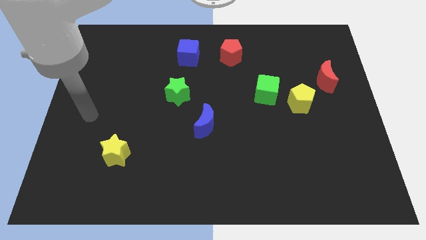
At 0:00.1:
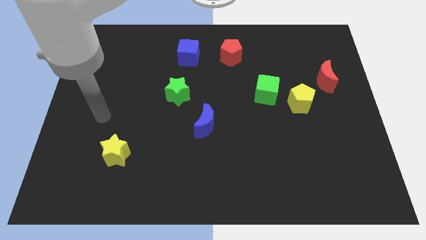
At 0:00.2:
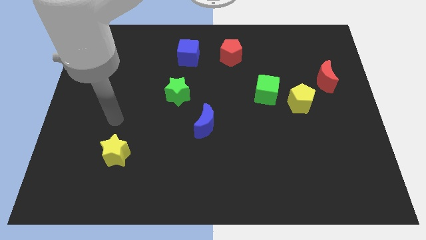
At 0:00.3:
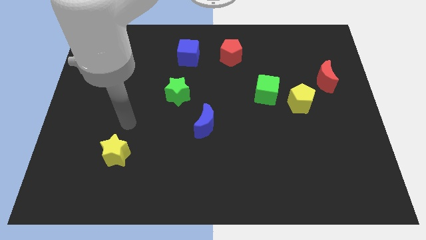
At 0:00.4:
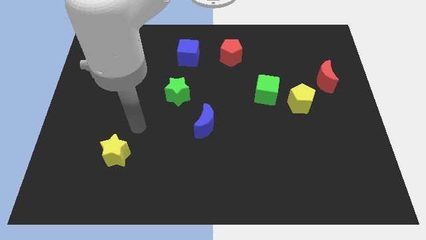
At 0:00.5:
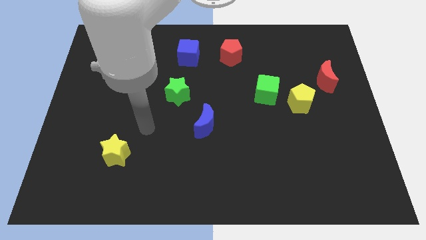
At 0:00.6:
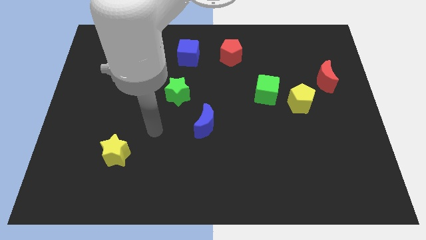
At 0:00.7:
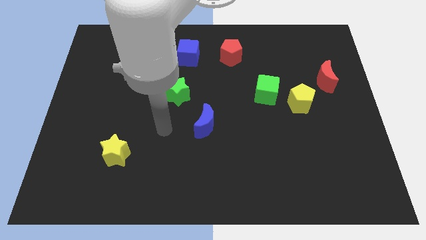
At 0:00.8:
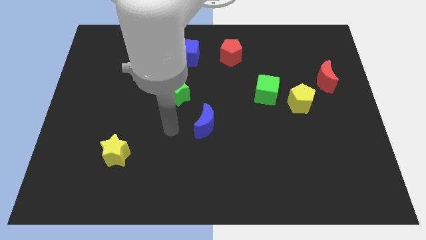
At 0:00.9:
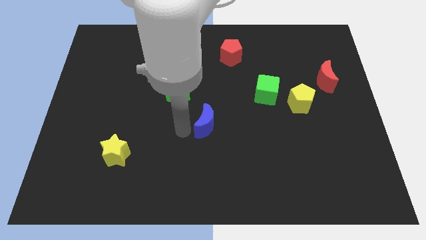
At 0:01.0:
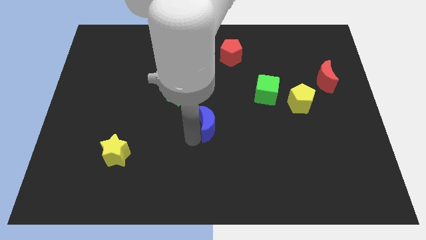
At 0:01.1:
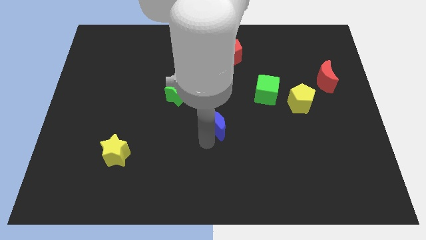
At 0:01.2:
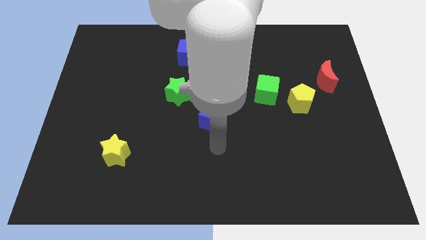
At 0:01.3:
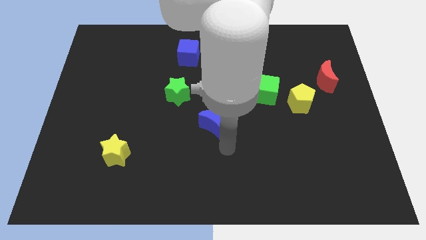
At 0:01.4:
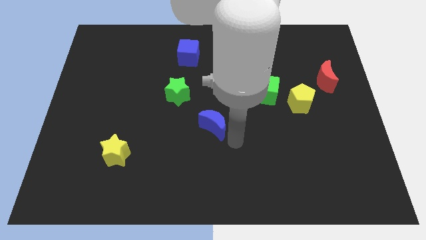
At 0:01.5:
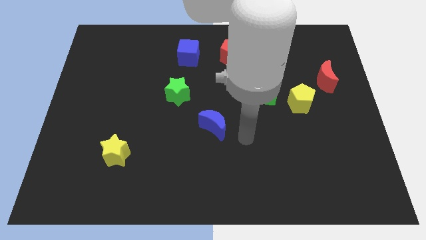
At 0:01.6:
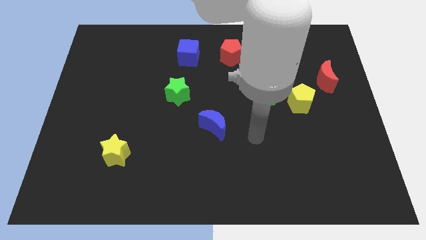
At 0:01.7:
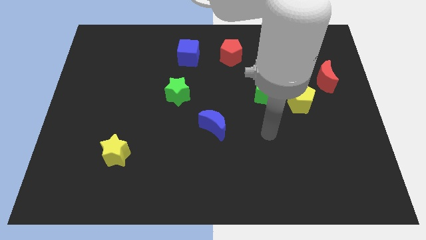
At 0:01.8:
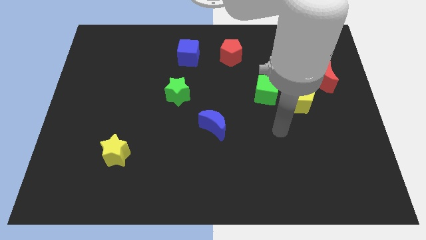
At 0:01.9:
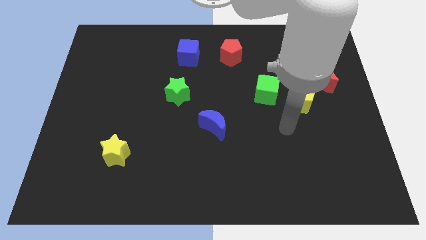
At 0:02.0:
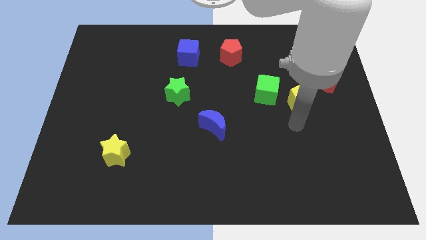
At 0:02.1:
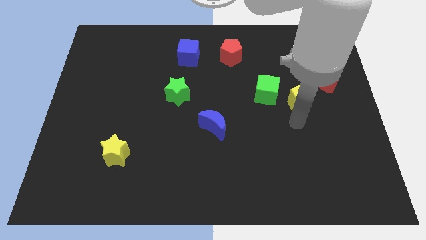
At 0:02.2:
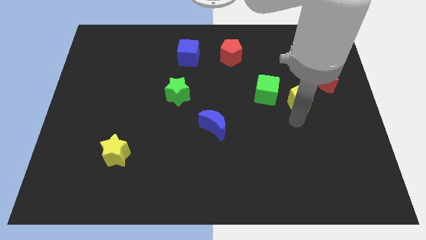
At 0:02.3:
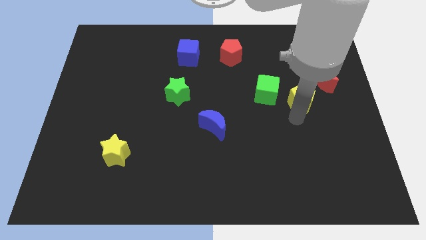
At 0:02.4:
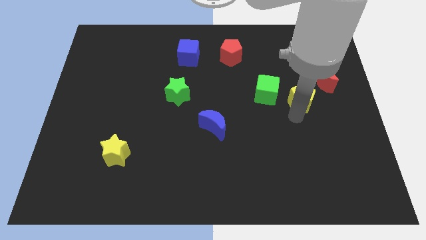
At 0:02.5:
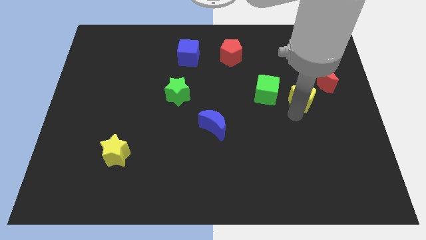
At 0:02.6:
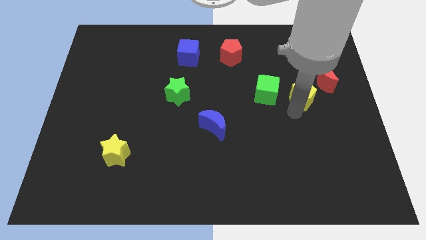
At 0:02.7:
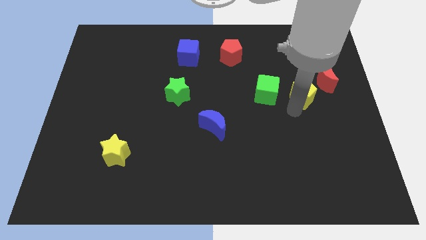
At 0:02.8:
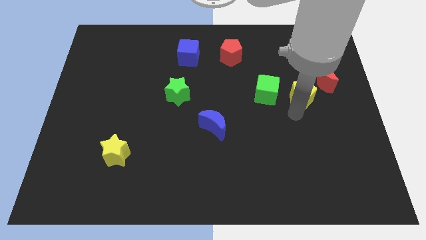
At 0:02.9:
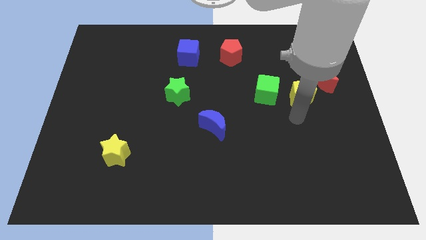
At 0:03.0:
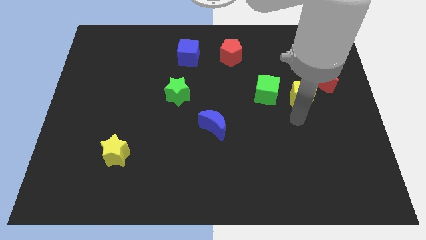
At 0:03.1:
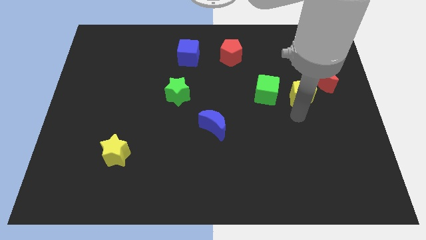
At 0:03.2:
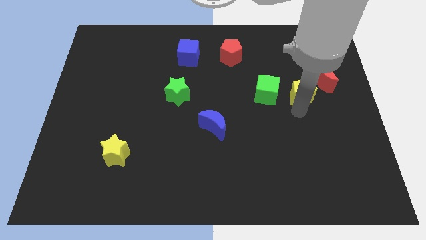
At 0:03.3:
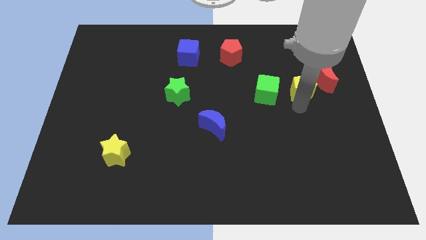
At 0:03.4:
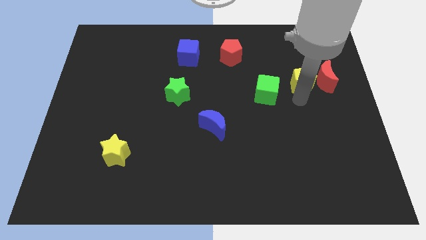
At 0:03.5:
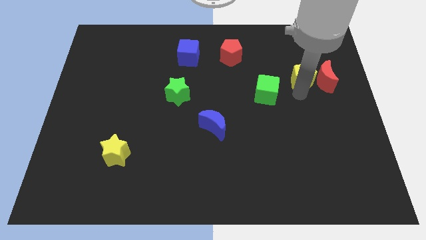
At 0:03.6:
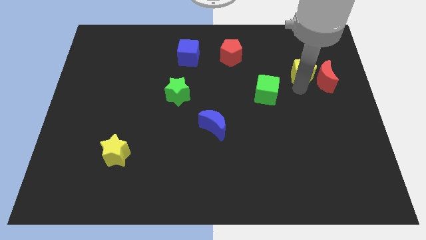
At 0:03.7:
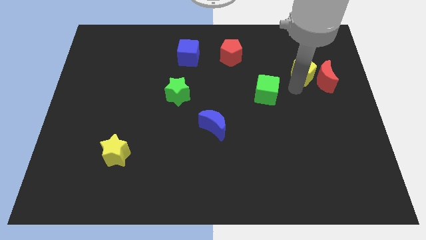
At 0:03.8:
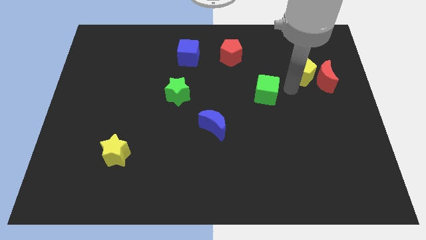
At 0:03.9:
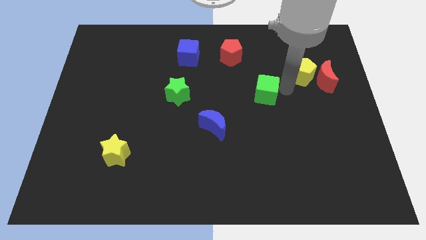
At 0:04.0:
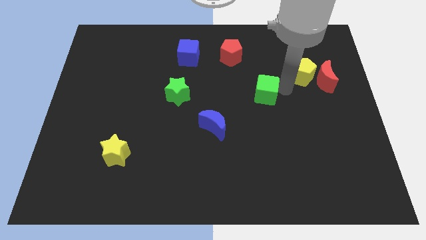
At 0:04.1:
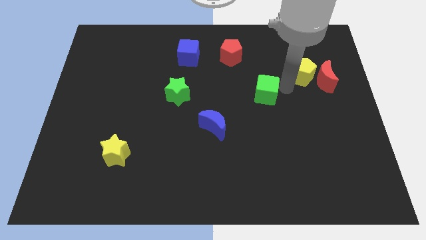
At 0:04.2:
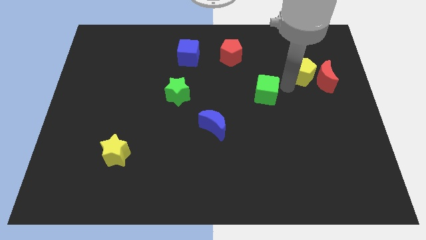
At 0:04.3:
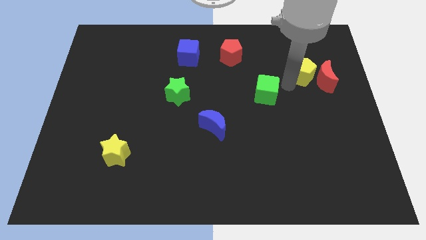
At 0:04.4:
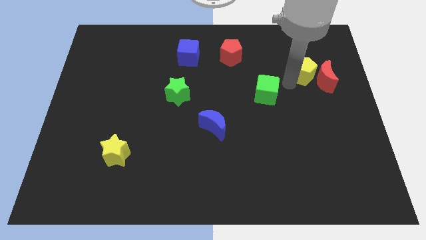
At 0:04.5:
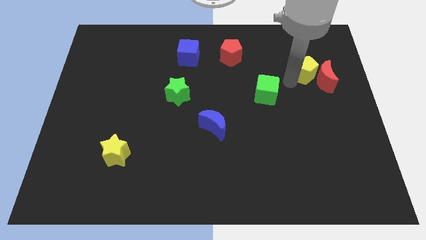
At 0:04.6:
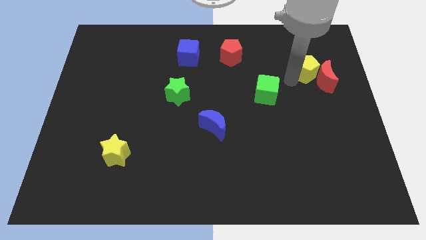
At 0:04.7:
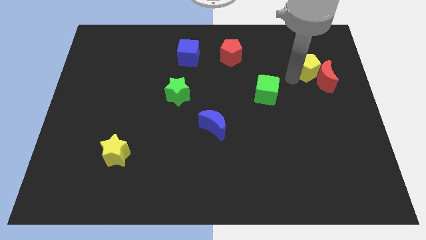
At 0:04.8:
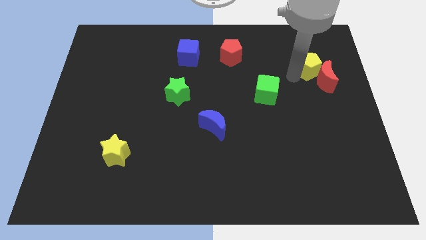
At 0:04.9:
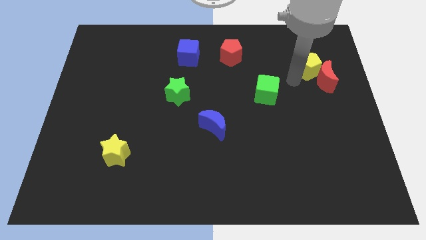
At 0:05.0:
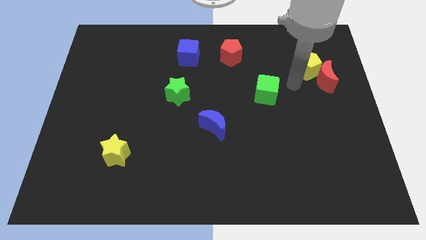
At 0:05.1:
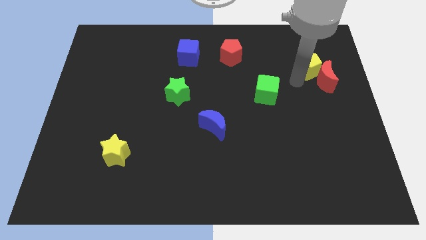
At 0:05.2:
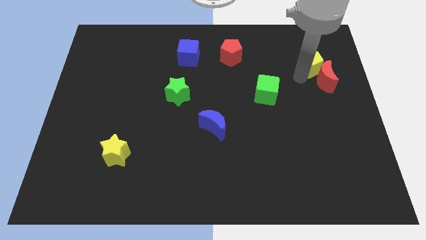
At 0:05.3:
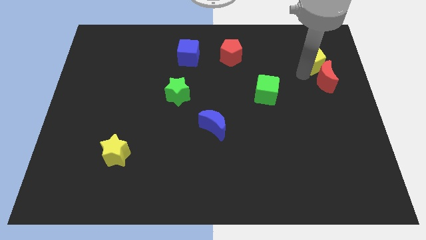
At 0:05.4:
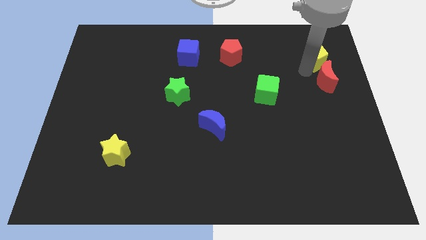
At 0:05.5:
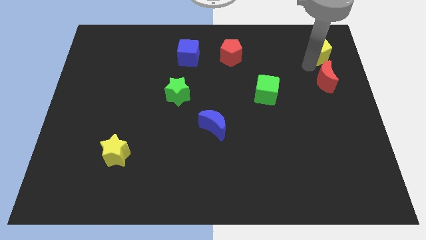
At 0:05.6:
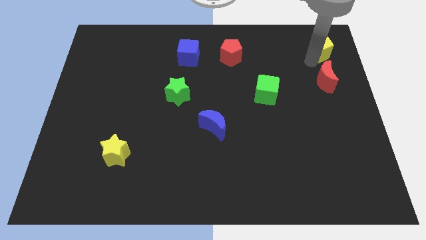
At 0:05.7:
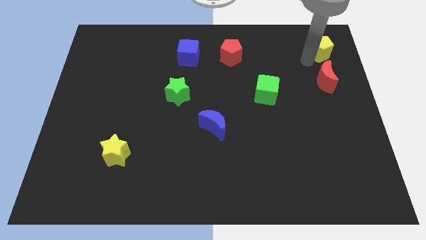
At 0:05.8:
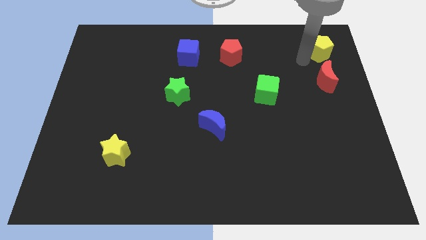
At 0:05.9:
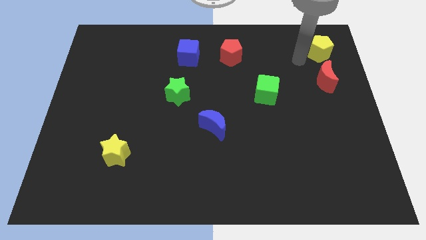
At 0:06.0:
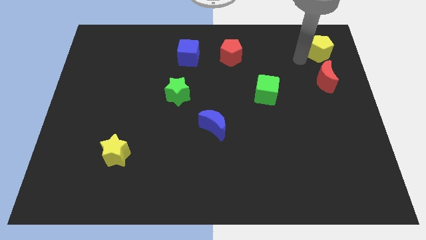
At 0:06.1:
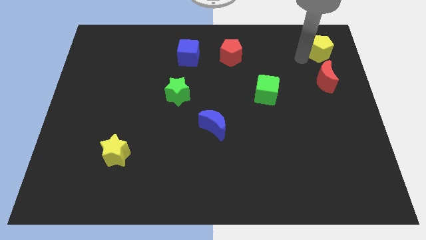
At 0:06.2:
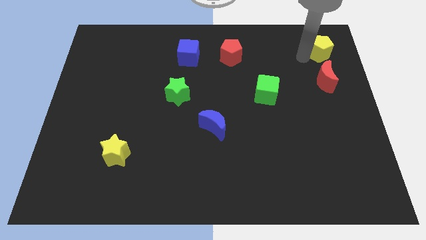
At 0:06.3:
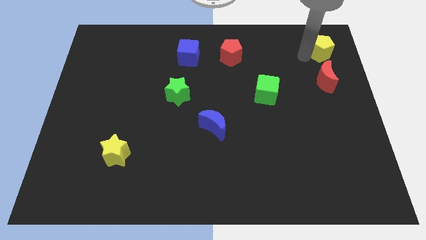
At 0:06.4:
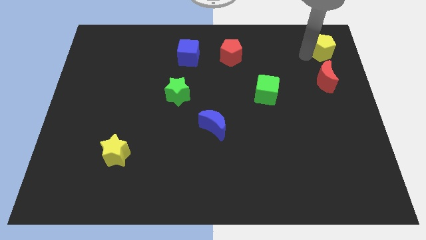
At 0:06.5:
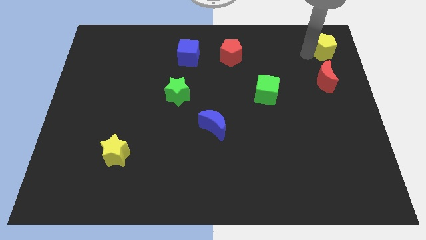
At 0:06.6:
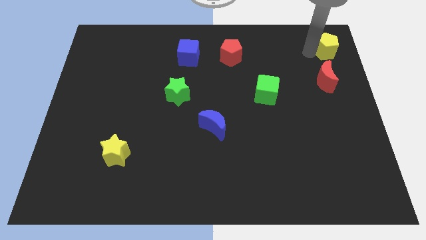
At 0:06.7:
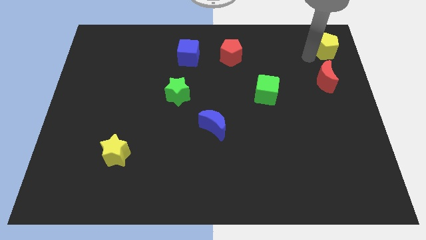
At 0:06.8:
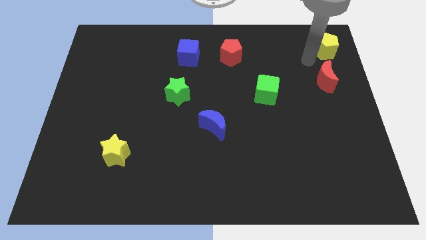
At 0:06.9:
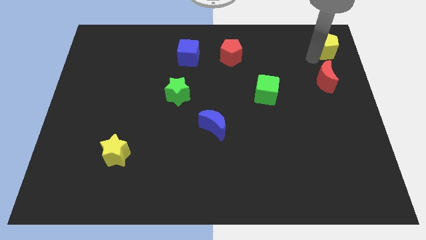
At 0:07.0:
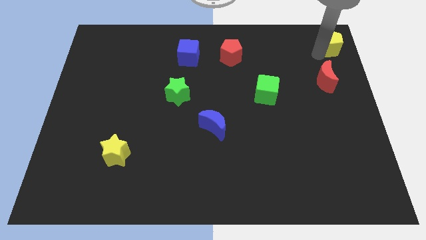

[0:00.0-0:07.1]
push the yellow pentagon to the top right of the board
